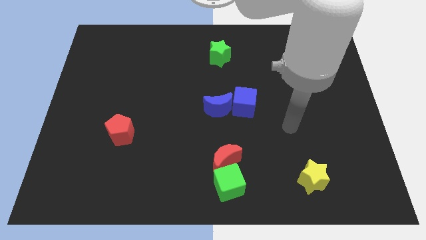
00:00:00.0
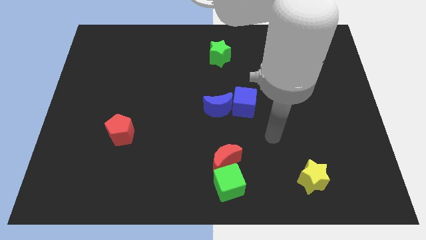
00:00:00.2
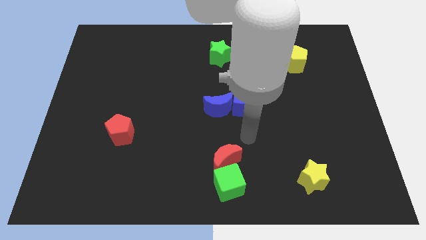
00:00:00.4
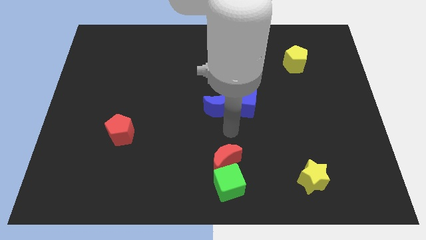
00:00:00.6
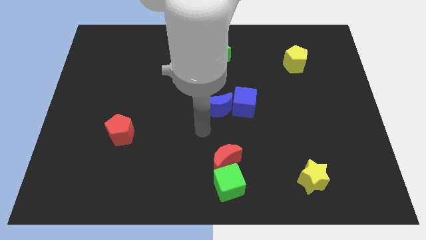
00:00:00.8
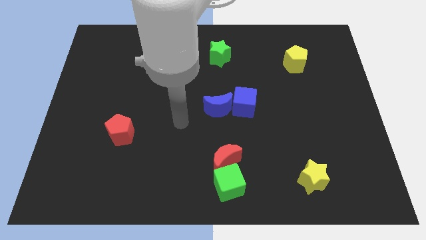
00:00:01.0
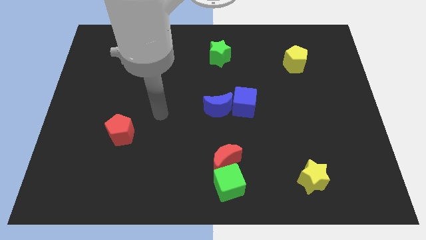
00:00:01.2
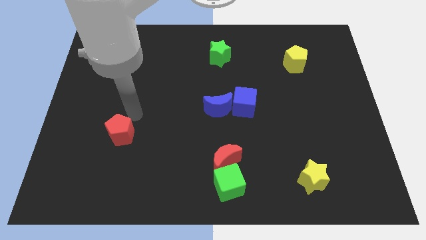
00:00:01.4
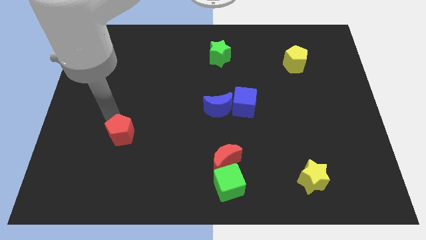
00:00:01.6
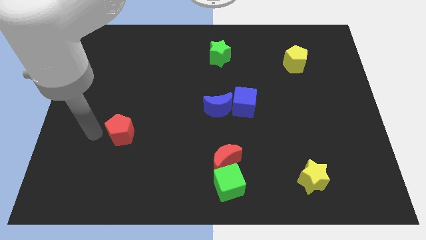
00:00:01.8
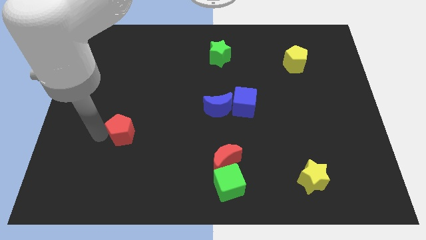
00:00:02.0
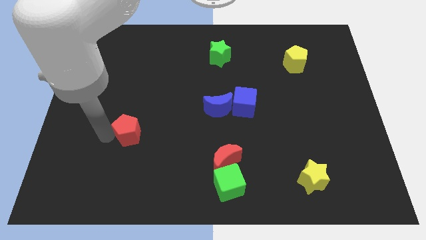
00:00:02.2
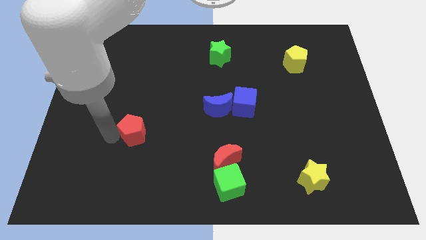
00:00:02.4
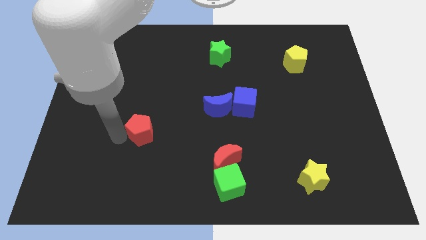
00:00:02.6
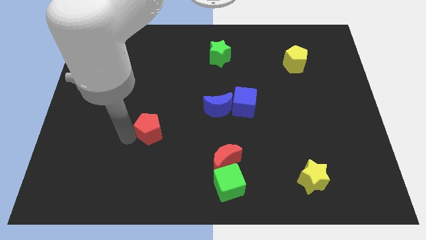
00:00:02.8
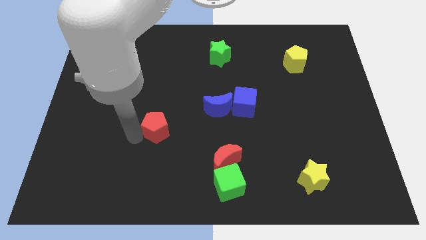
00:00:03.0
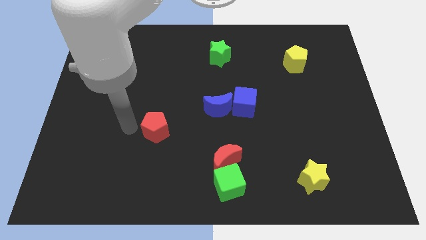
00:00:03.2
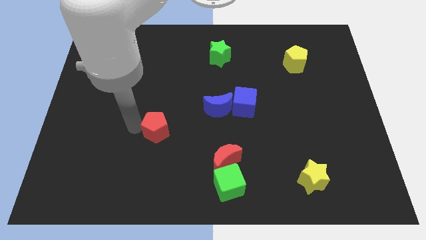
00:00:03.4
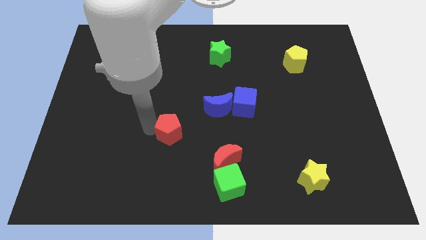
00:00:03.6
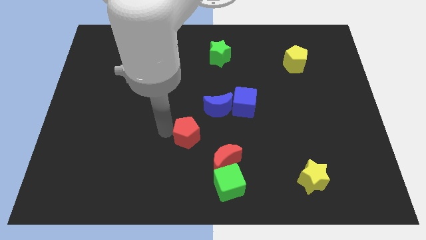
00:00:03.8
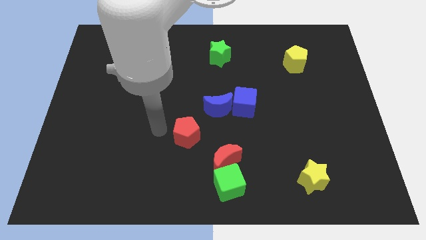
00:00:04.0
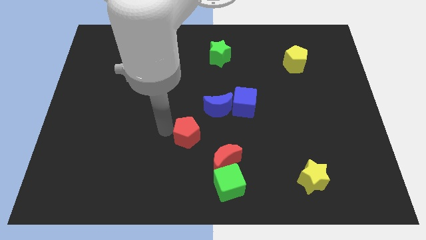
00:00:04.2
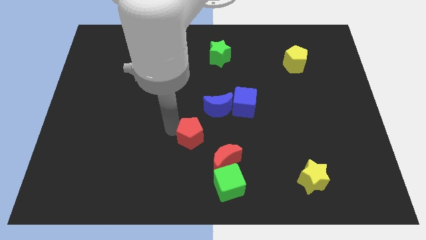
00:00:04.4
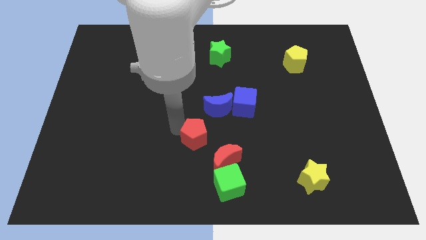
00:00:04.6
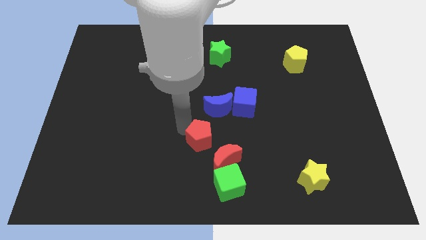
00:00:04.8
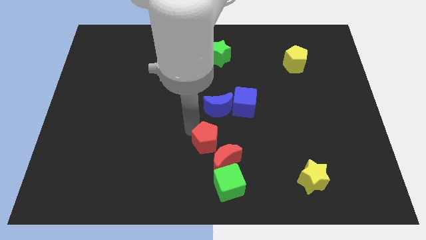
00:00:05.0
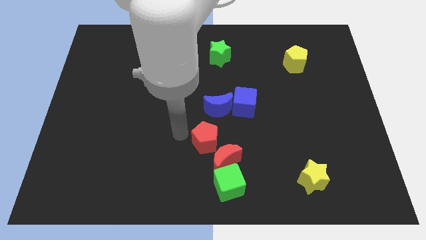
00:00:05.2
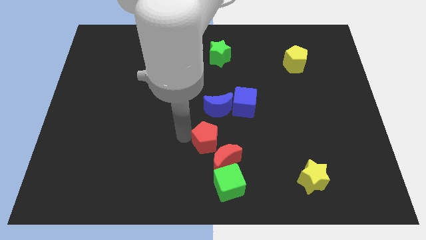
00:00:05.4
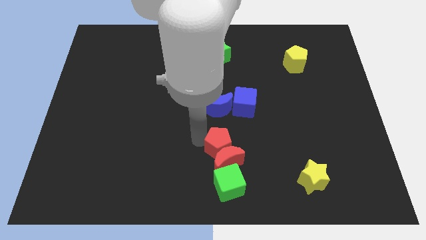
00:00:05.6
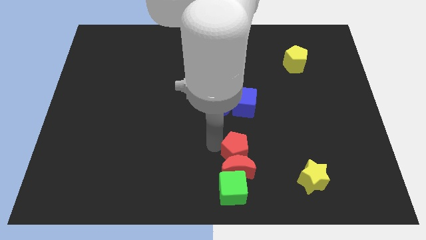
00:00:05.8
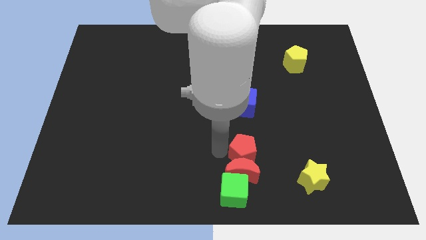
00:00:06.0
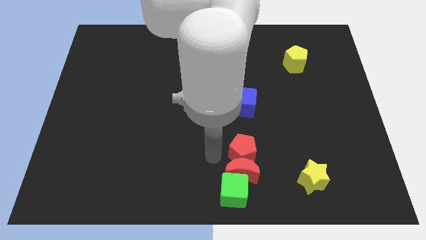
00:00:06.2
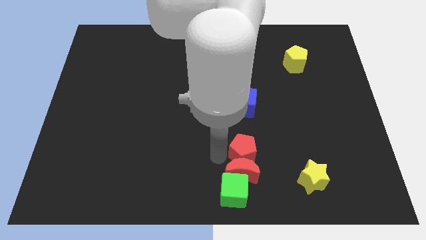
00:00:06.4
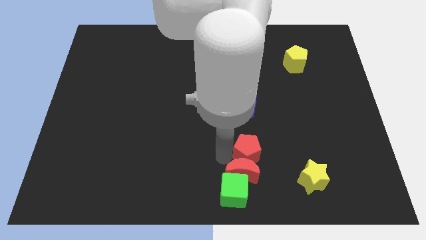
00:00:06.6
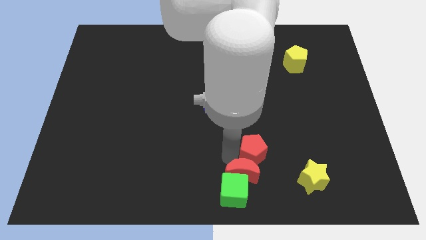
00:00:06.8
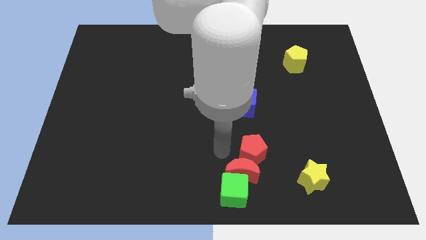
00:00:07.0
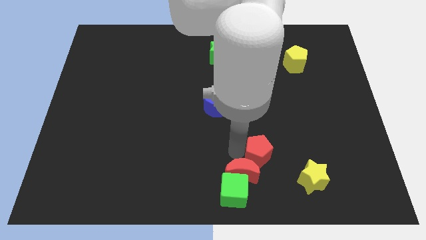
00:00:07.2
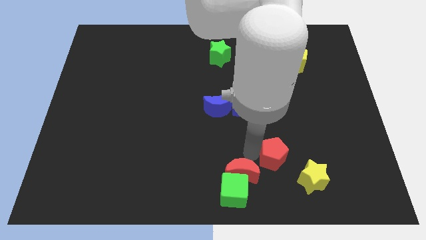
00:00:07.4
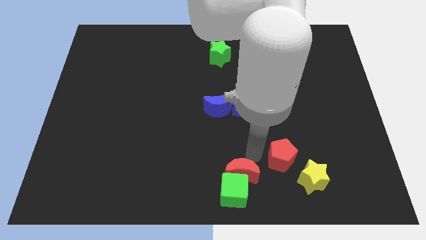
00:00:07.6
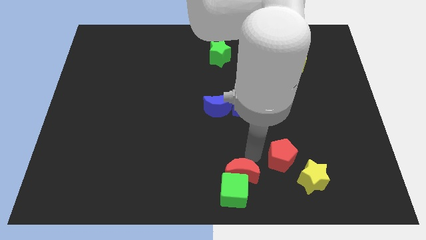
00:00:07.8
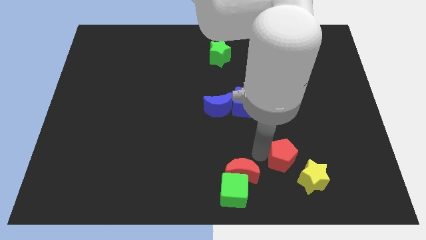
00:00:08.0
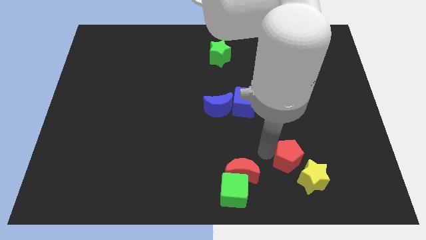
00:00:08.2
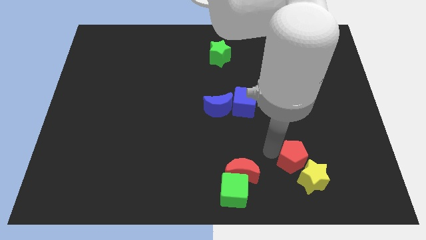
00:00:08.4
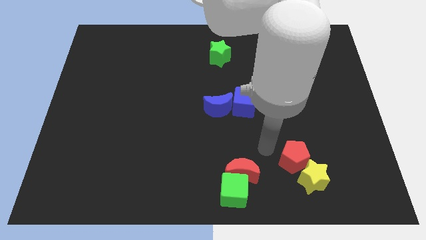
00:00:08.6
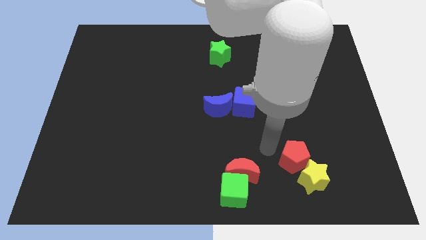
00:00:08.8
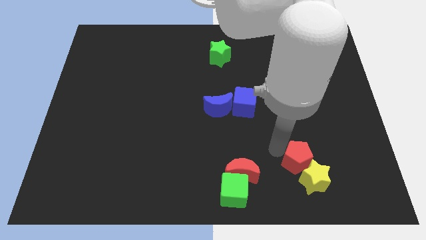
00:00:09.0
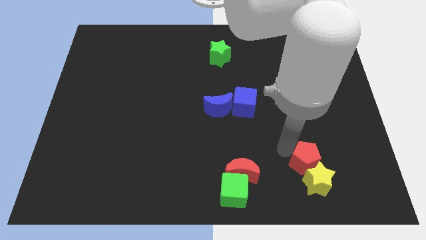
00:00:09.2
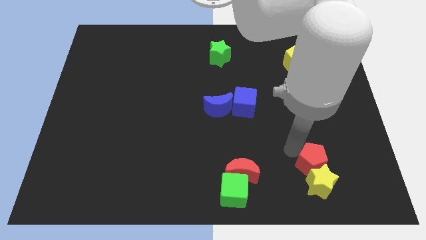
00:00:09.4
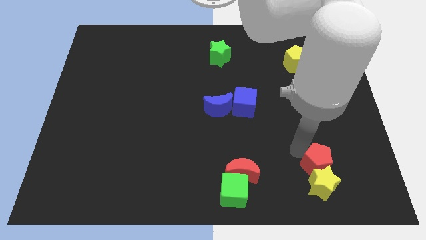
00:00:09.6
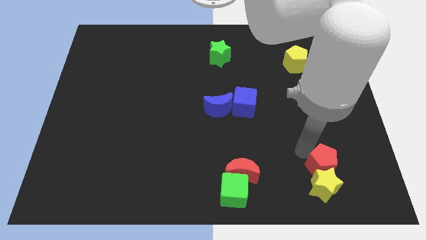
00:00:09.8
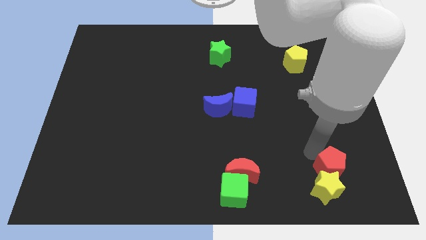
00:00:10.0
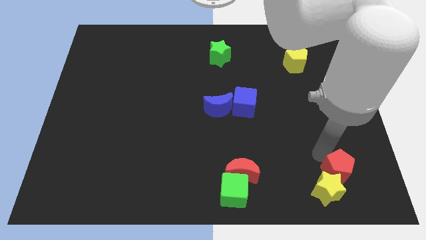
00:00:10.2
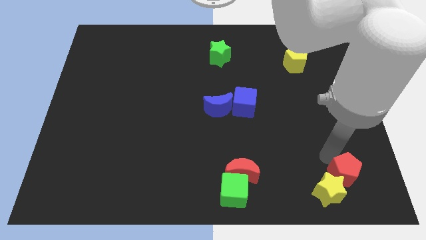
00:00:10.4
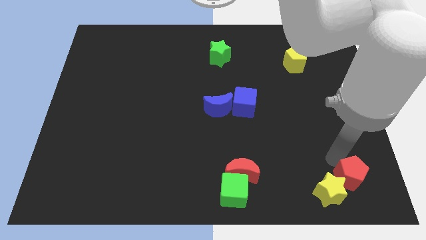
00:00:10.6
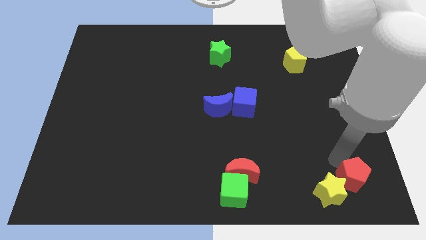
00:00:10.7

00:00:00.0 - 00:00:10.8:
push the red pentagon to the bottom right of the board

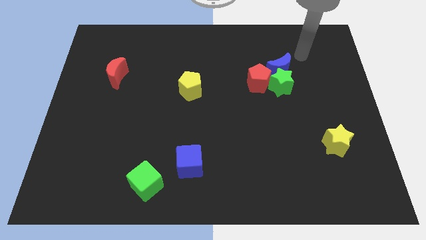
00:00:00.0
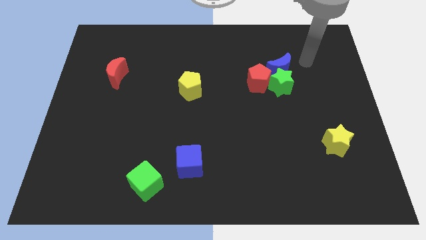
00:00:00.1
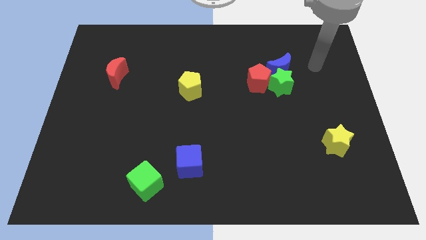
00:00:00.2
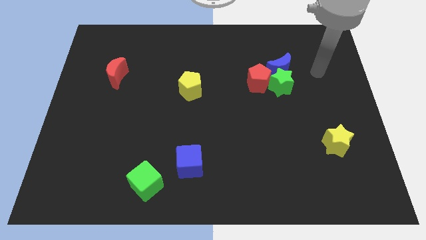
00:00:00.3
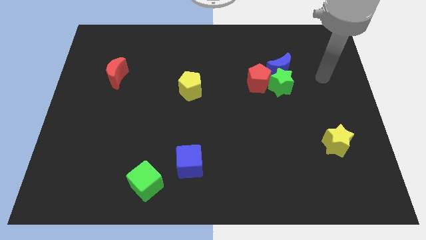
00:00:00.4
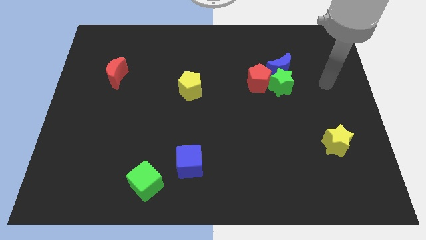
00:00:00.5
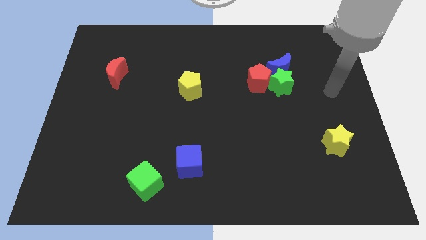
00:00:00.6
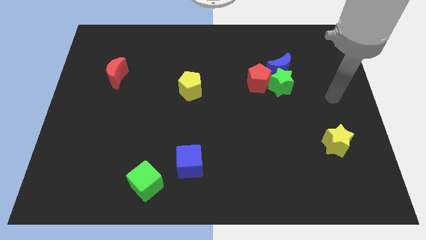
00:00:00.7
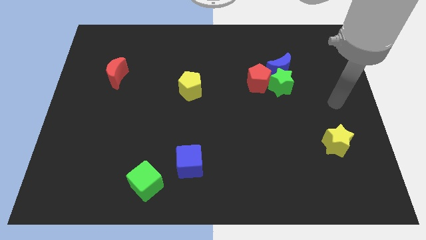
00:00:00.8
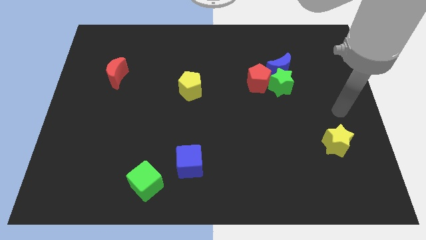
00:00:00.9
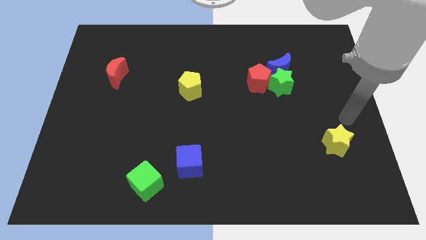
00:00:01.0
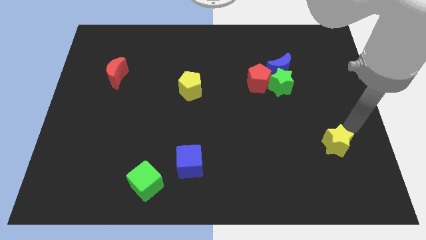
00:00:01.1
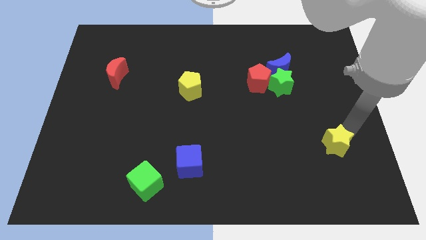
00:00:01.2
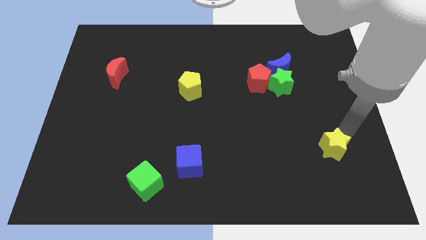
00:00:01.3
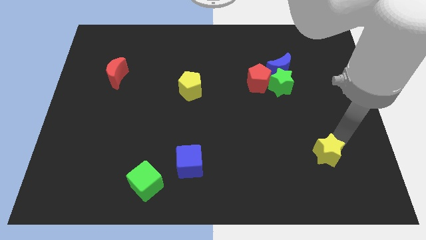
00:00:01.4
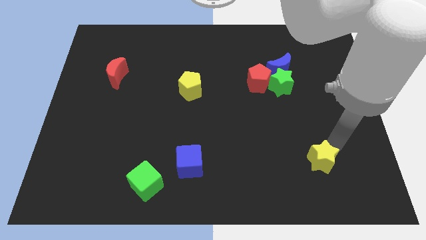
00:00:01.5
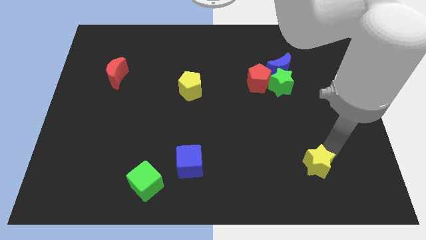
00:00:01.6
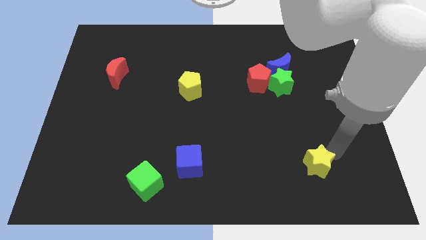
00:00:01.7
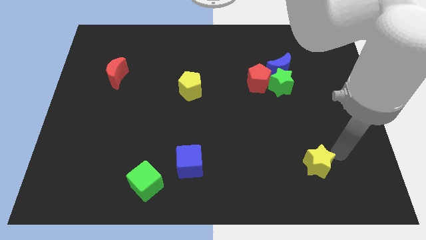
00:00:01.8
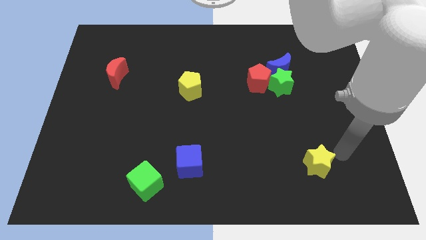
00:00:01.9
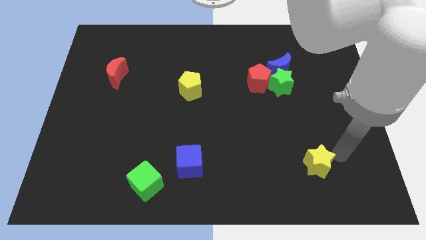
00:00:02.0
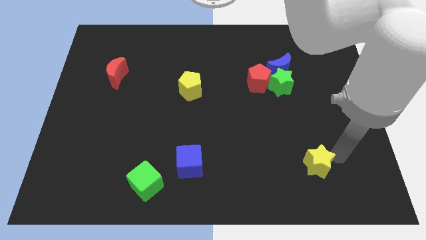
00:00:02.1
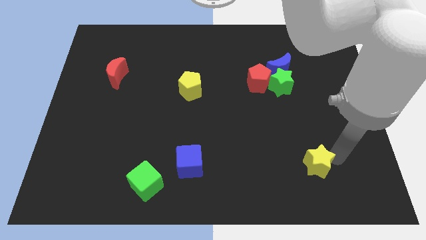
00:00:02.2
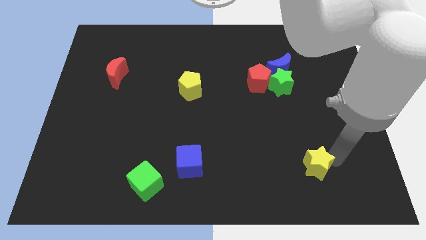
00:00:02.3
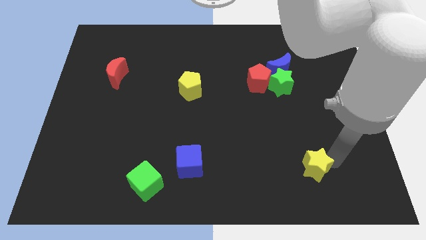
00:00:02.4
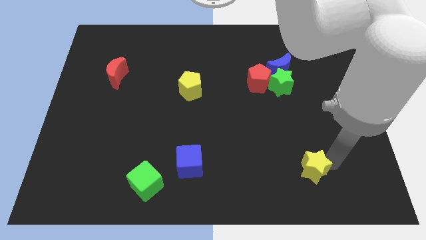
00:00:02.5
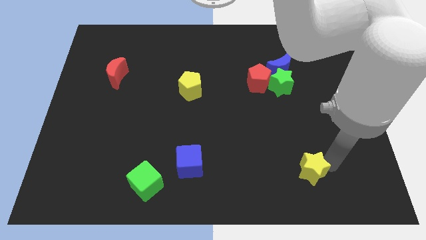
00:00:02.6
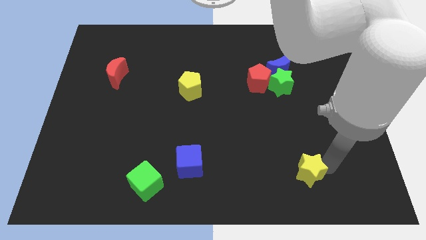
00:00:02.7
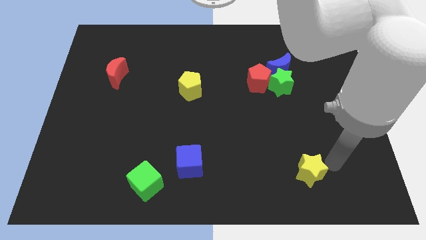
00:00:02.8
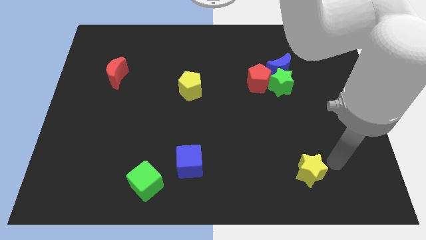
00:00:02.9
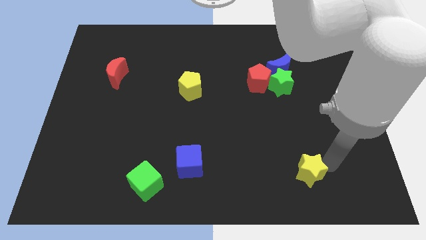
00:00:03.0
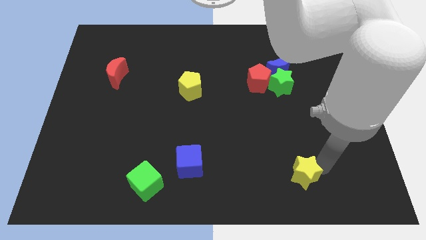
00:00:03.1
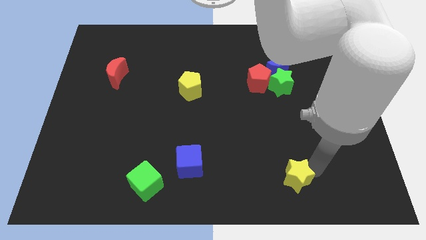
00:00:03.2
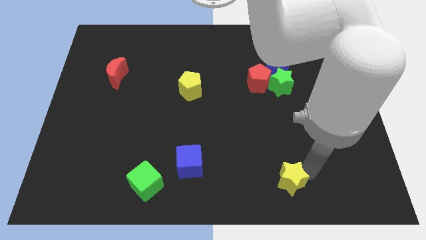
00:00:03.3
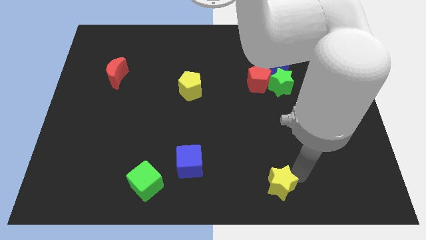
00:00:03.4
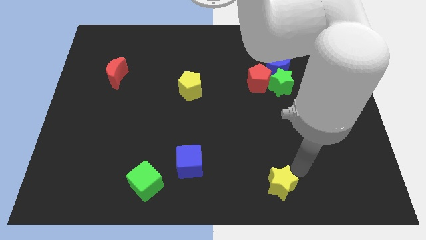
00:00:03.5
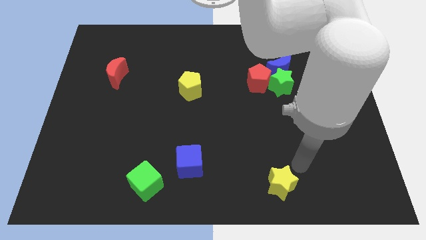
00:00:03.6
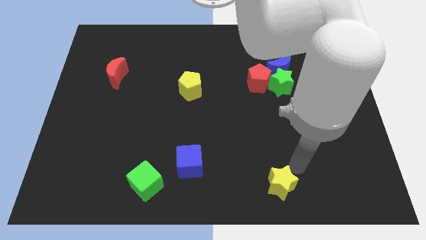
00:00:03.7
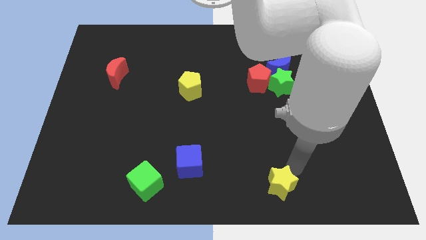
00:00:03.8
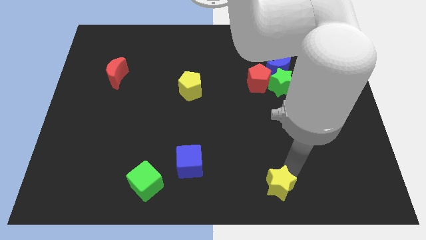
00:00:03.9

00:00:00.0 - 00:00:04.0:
move the yellow star to the bottom side
